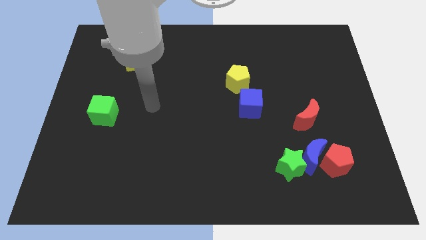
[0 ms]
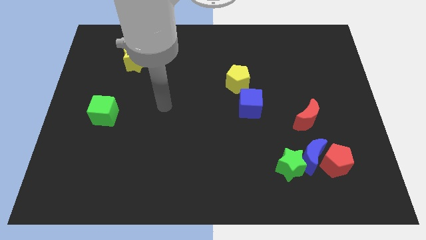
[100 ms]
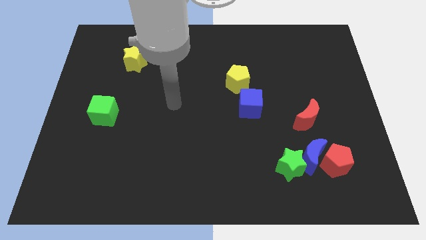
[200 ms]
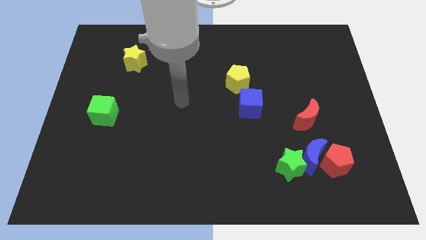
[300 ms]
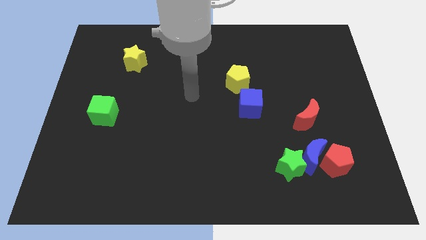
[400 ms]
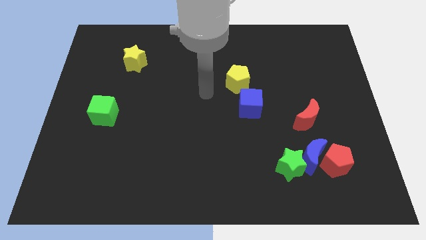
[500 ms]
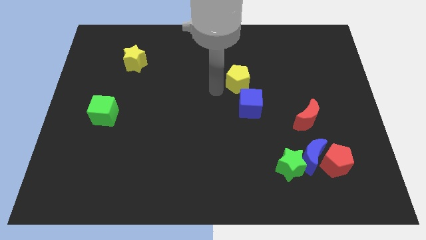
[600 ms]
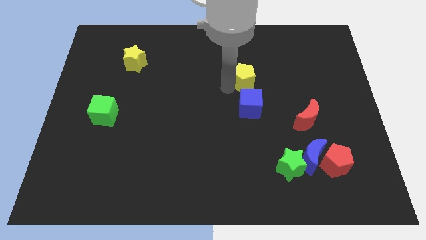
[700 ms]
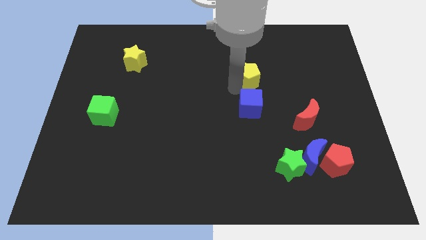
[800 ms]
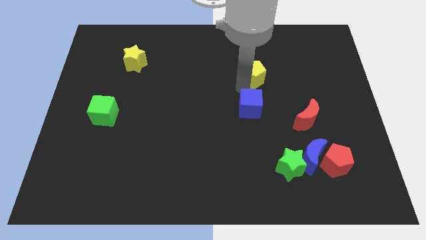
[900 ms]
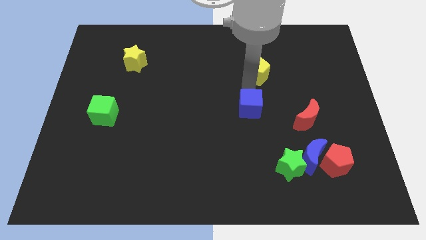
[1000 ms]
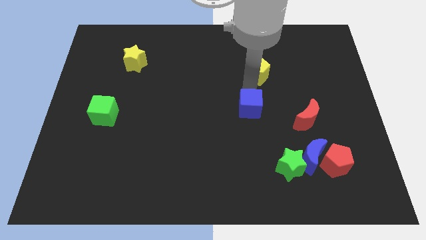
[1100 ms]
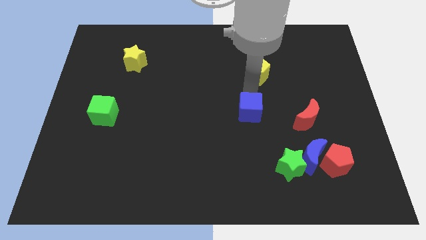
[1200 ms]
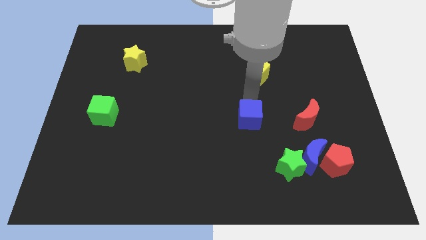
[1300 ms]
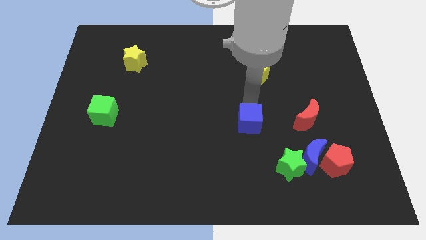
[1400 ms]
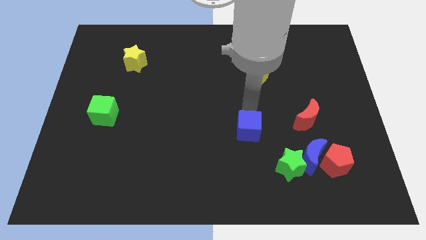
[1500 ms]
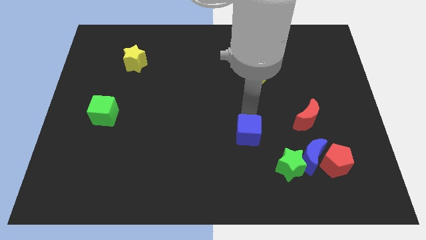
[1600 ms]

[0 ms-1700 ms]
slightly push the blue cube downwards

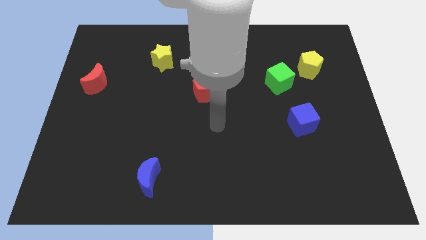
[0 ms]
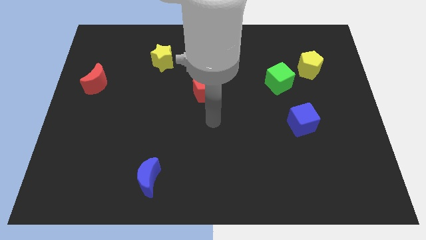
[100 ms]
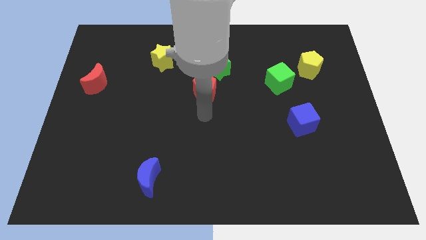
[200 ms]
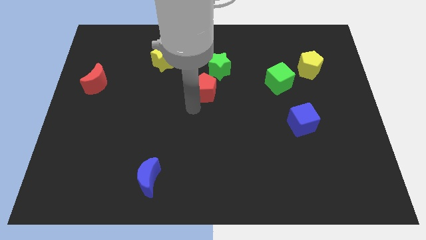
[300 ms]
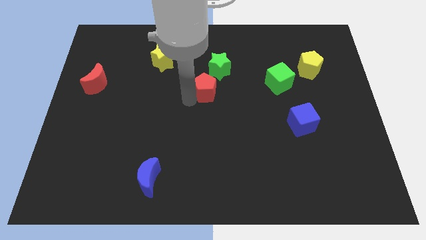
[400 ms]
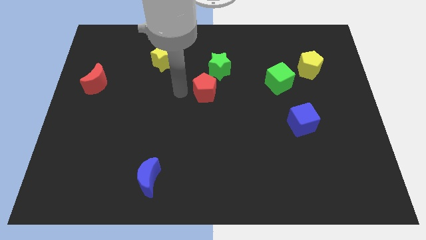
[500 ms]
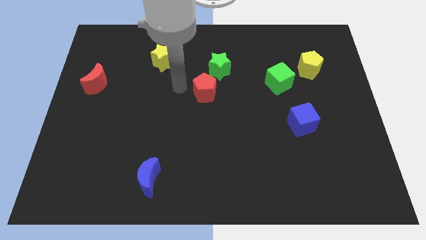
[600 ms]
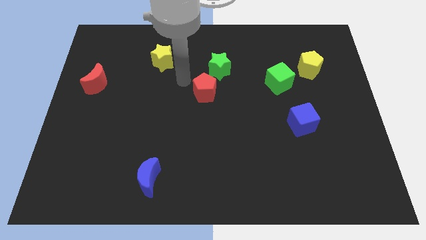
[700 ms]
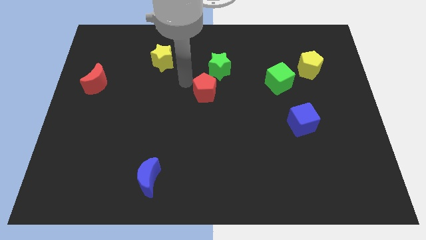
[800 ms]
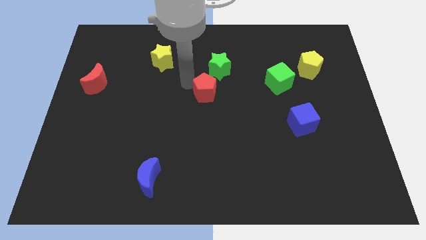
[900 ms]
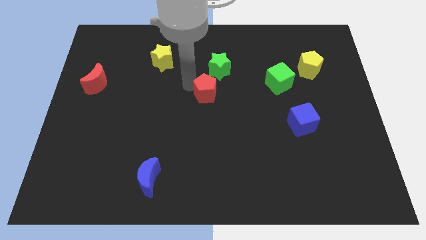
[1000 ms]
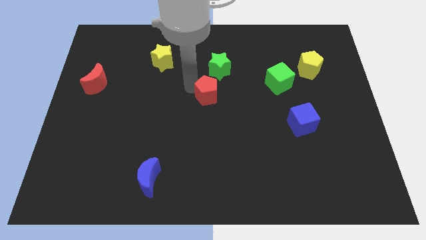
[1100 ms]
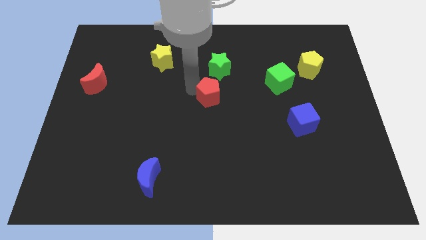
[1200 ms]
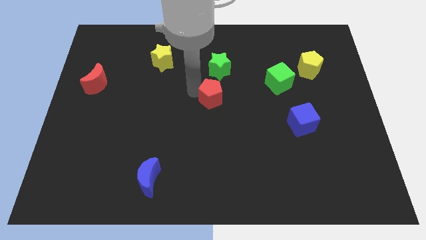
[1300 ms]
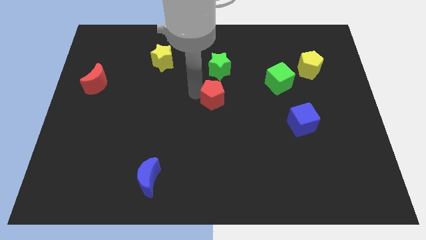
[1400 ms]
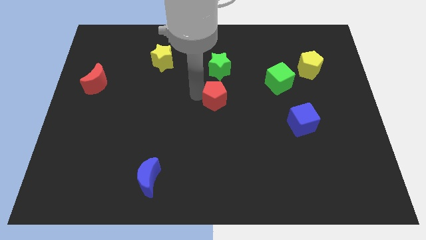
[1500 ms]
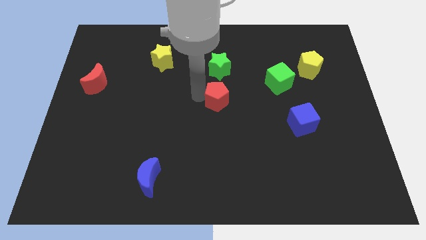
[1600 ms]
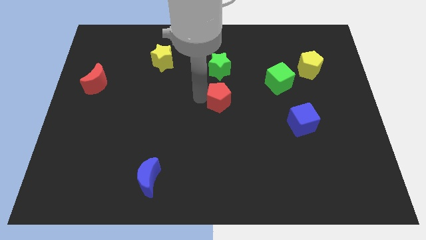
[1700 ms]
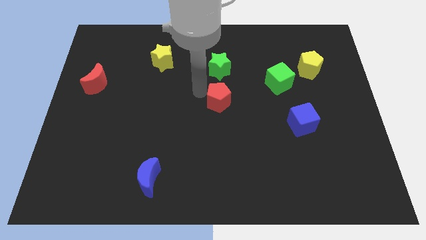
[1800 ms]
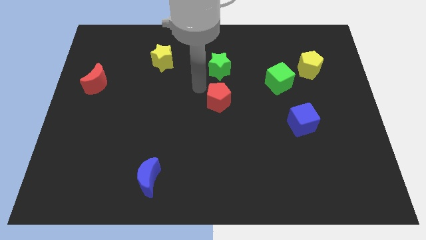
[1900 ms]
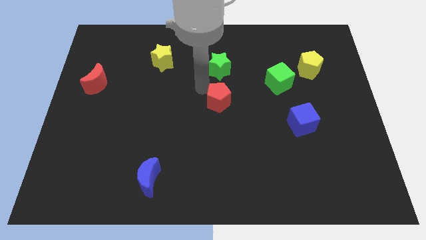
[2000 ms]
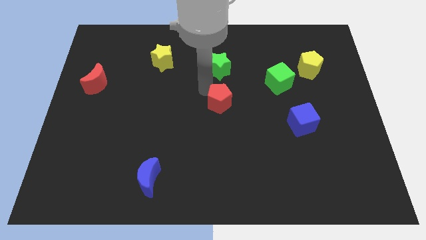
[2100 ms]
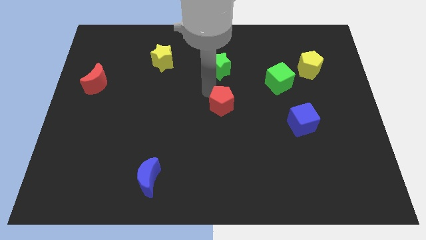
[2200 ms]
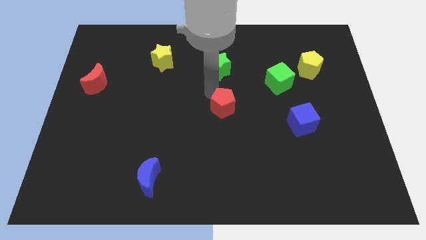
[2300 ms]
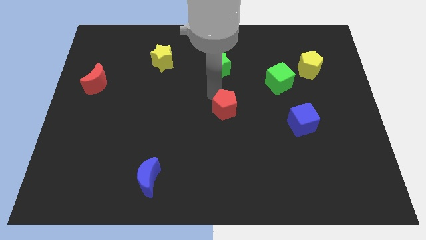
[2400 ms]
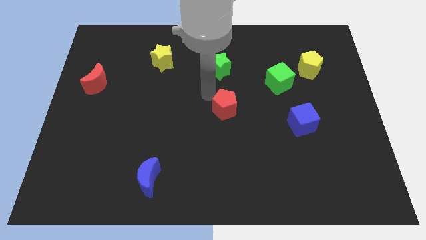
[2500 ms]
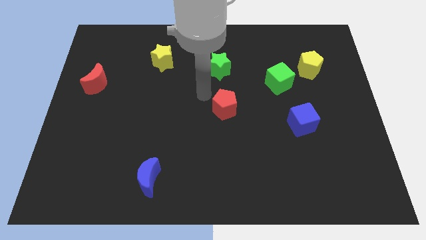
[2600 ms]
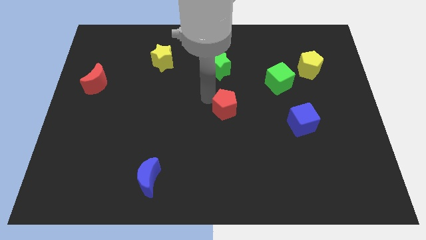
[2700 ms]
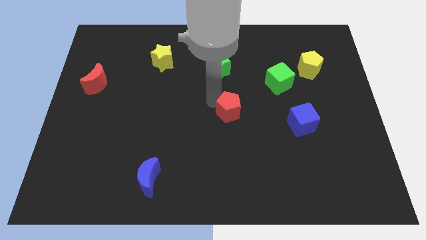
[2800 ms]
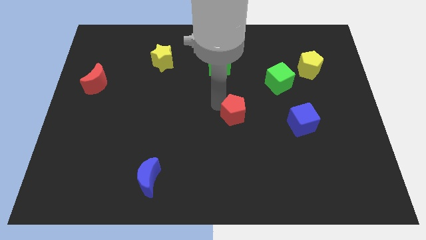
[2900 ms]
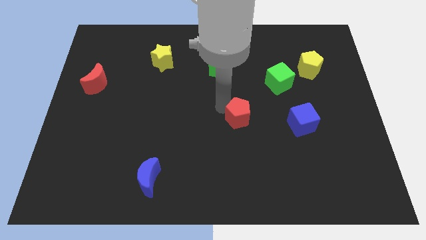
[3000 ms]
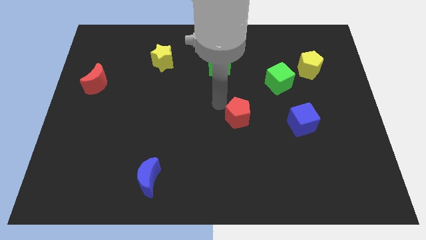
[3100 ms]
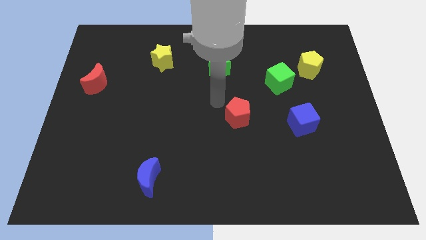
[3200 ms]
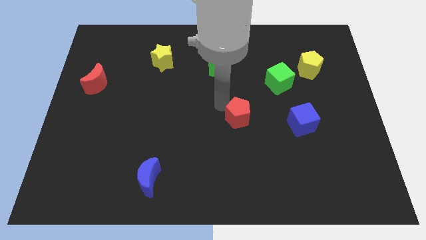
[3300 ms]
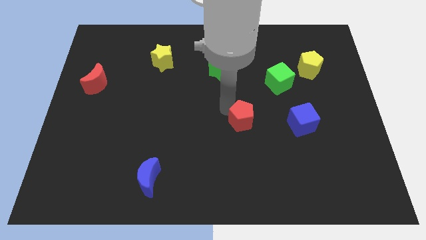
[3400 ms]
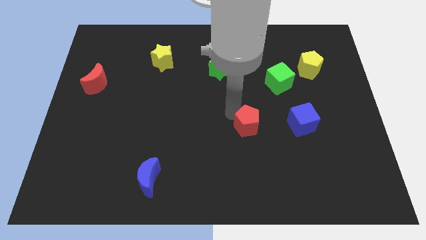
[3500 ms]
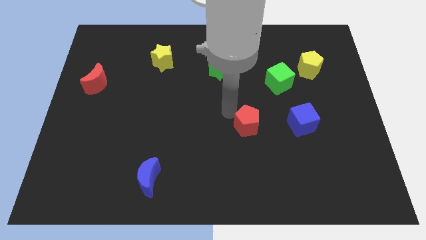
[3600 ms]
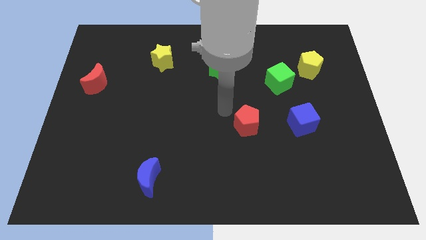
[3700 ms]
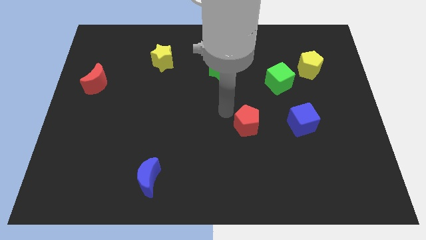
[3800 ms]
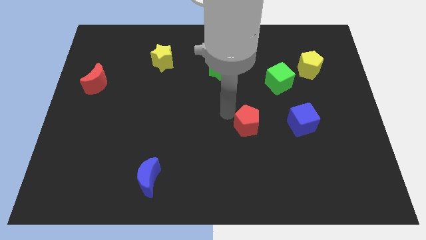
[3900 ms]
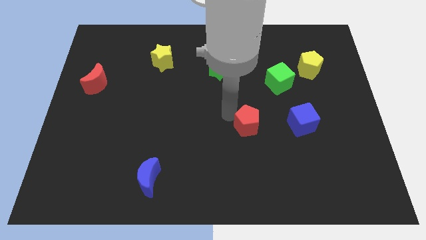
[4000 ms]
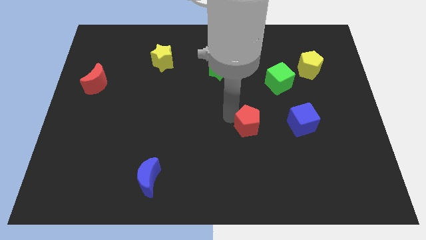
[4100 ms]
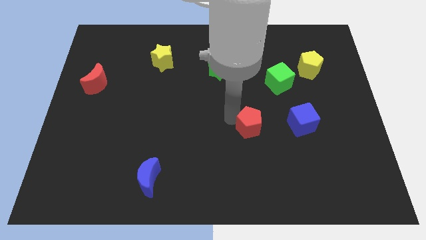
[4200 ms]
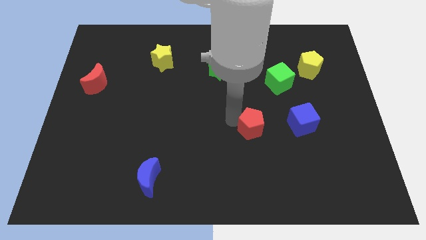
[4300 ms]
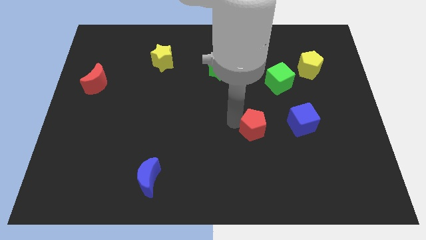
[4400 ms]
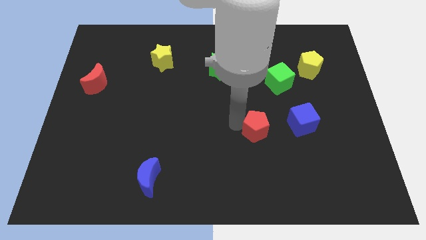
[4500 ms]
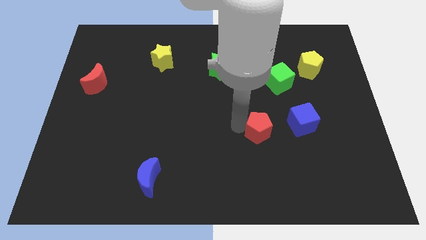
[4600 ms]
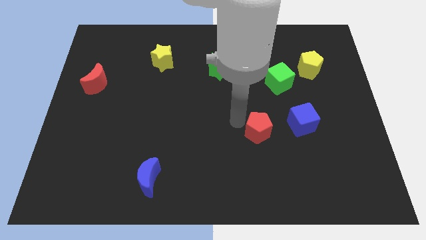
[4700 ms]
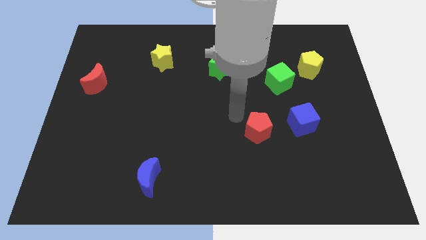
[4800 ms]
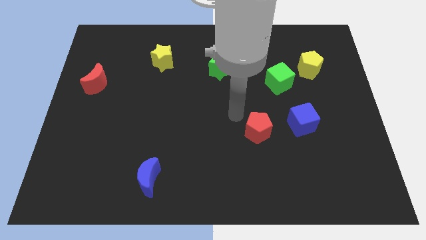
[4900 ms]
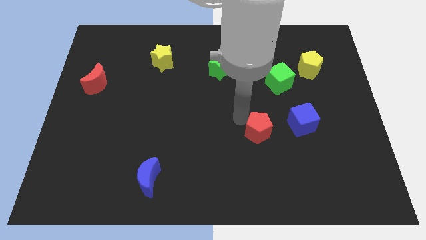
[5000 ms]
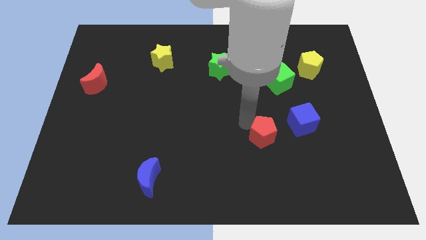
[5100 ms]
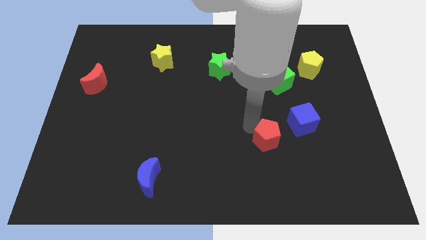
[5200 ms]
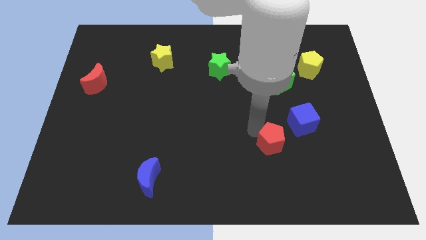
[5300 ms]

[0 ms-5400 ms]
move the red pentagon diagonally down and to the right

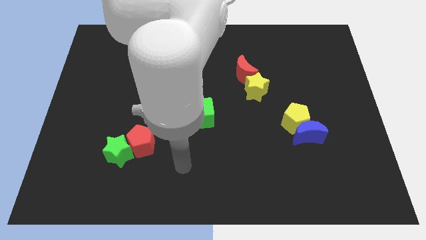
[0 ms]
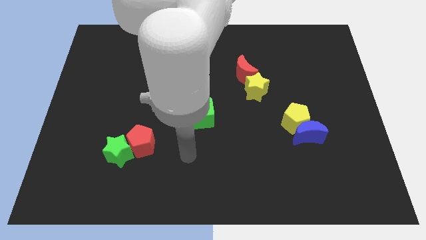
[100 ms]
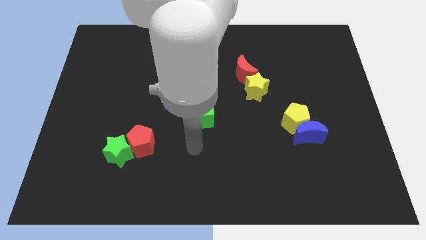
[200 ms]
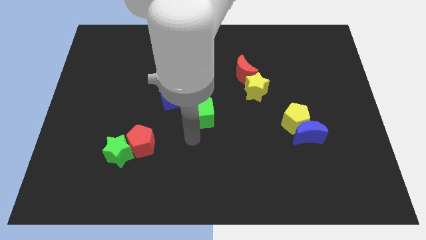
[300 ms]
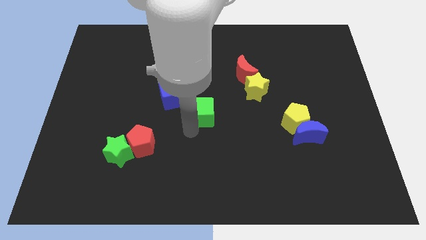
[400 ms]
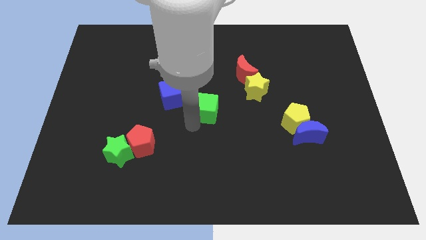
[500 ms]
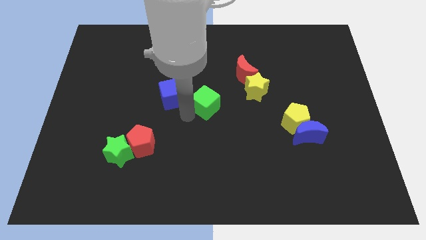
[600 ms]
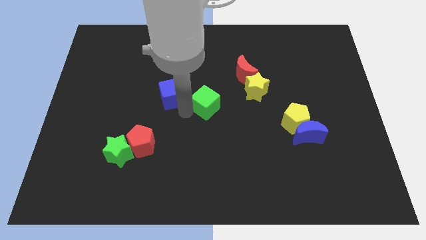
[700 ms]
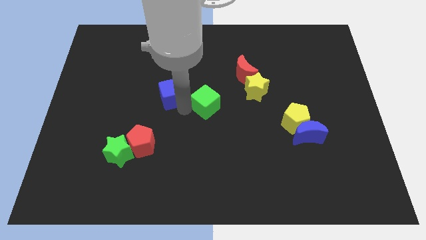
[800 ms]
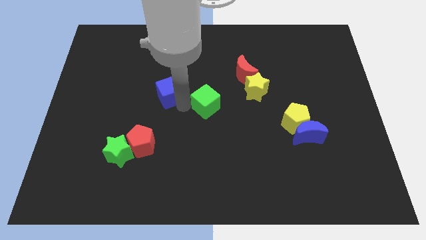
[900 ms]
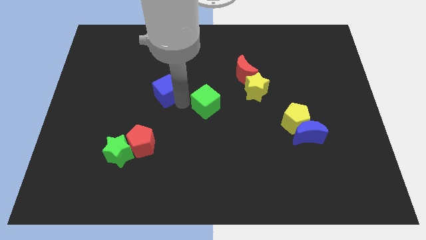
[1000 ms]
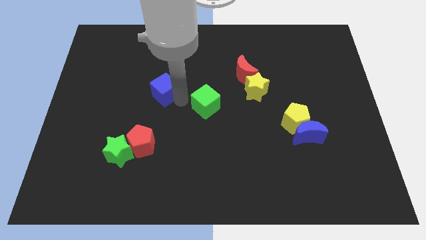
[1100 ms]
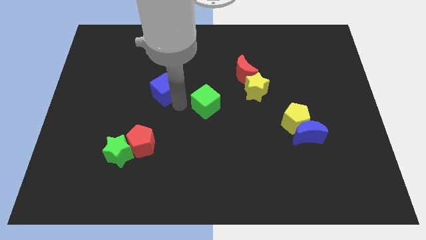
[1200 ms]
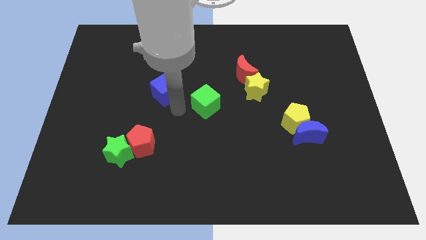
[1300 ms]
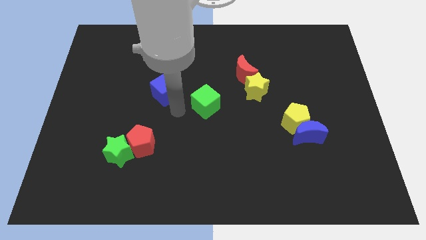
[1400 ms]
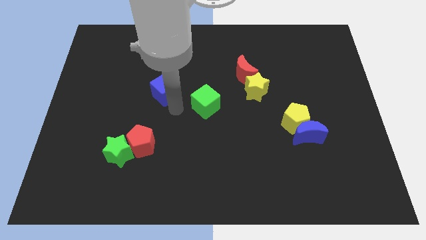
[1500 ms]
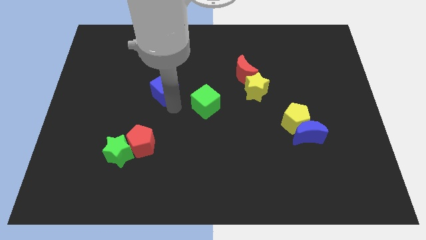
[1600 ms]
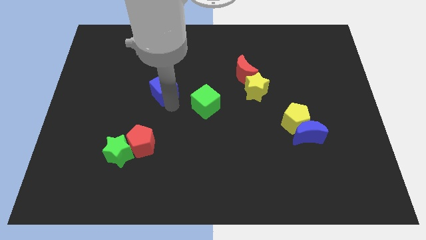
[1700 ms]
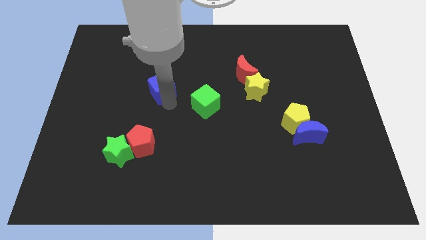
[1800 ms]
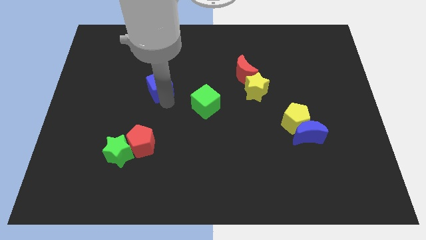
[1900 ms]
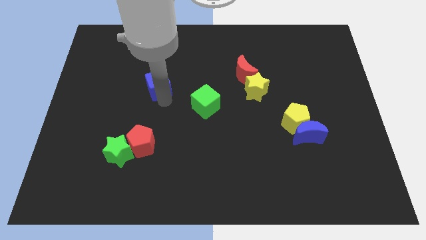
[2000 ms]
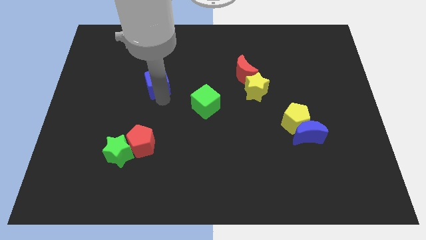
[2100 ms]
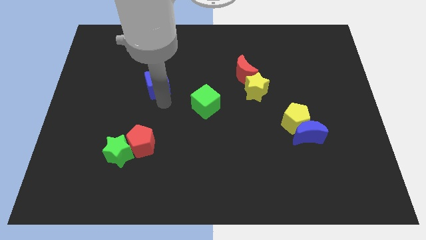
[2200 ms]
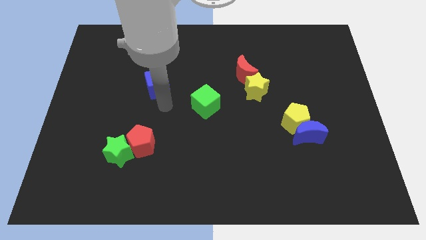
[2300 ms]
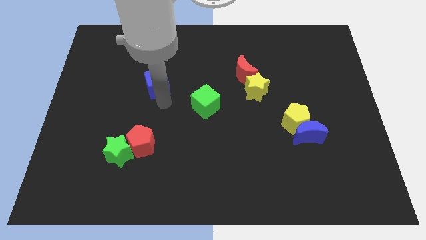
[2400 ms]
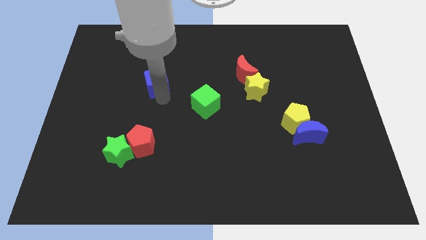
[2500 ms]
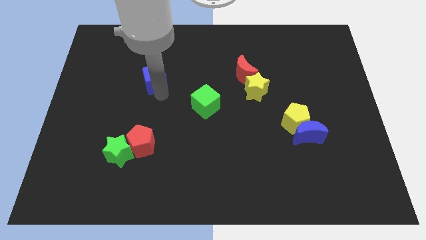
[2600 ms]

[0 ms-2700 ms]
push the blue cube somewhat upwards and left diagonally
